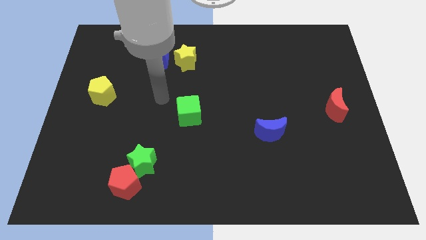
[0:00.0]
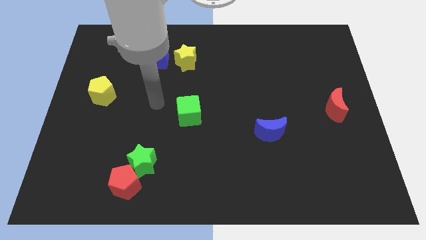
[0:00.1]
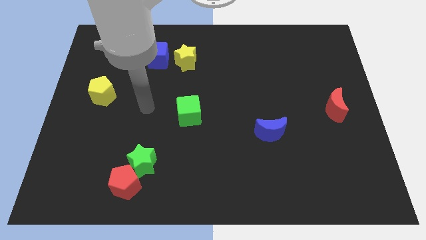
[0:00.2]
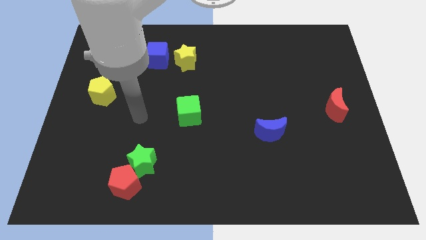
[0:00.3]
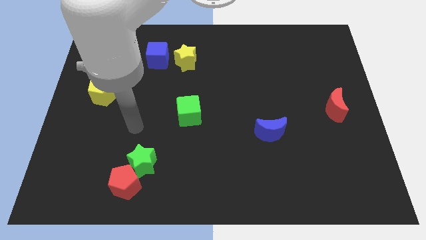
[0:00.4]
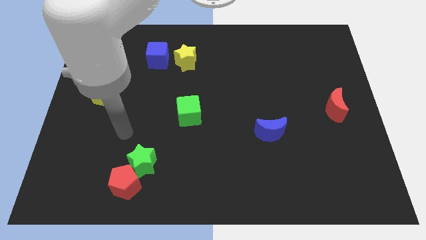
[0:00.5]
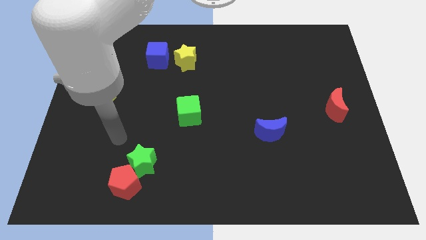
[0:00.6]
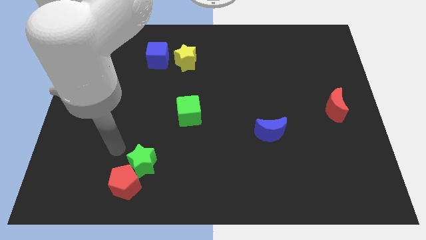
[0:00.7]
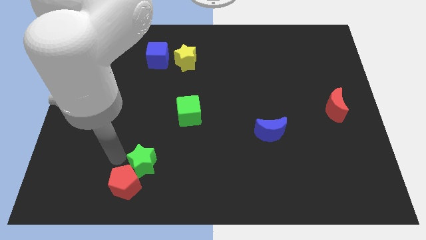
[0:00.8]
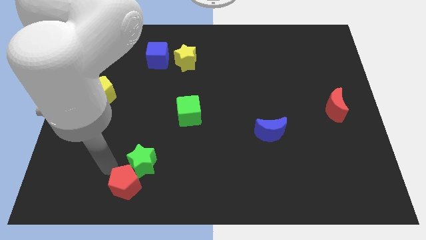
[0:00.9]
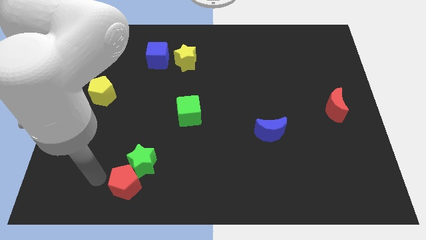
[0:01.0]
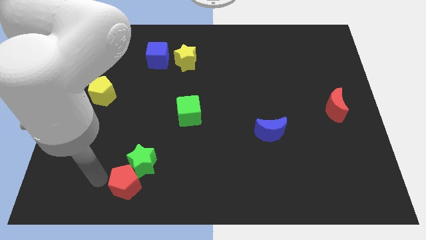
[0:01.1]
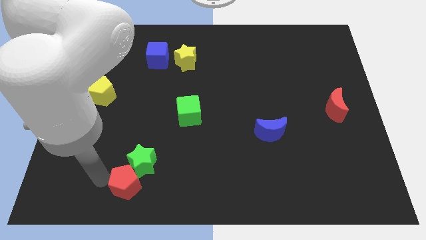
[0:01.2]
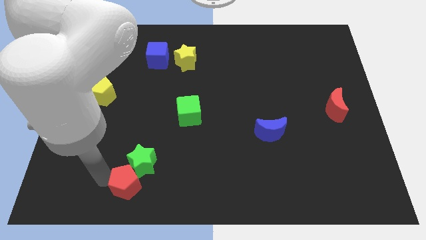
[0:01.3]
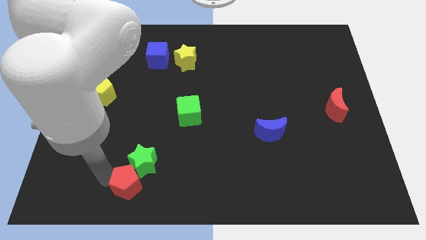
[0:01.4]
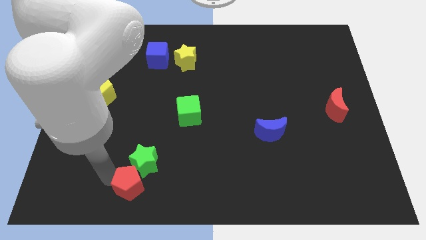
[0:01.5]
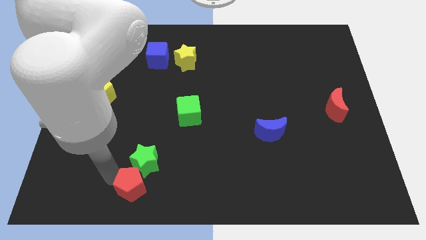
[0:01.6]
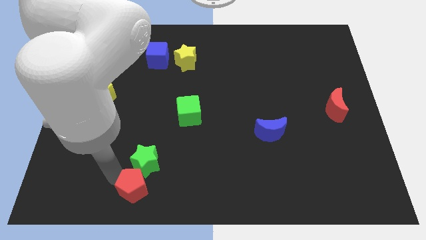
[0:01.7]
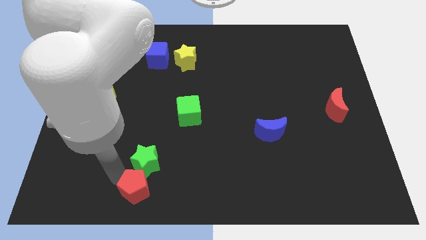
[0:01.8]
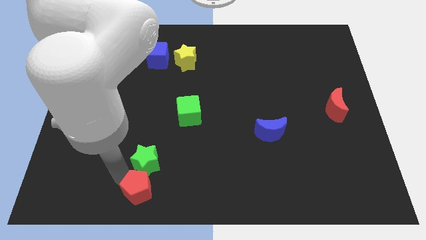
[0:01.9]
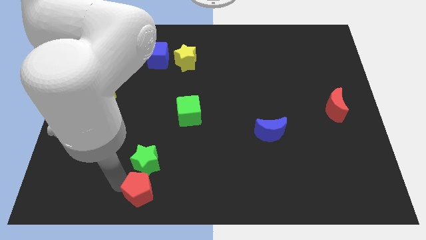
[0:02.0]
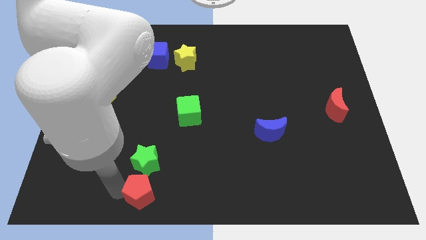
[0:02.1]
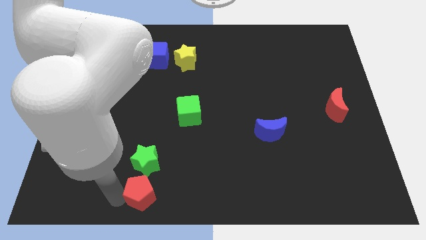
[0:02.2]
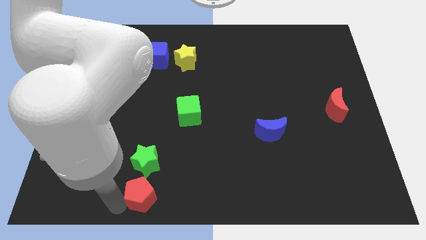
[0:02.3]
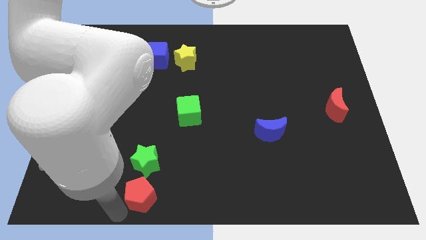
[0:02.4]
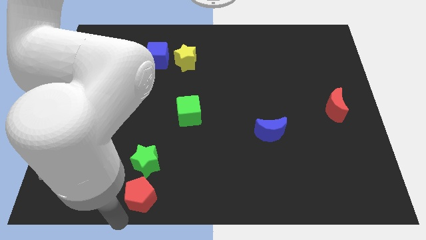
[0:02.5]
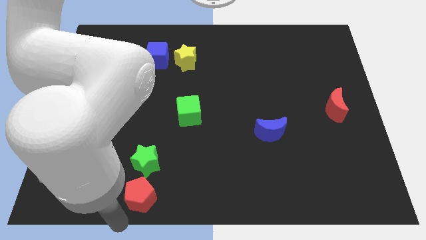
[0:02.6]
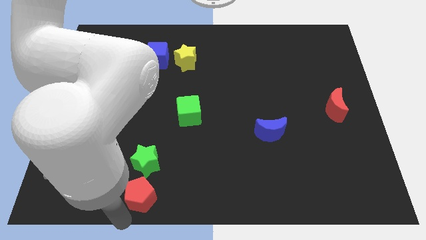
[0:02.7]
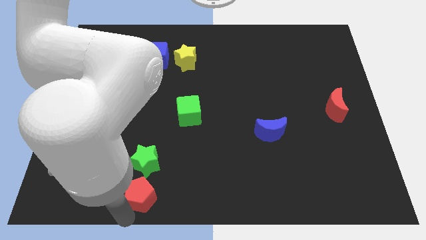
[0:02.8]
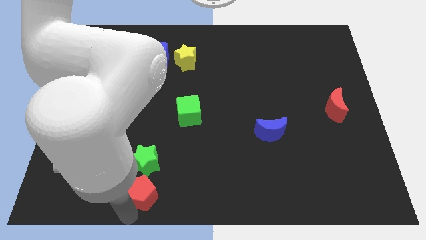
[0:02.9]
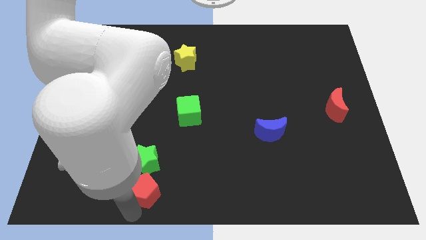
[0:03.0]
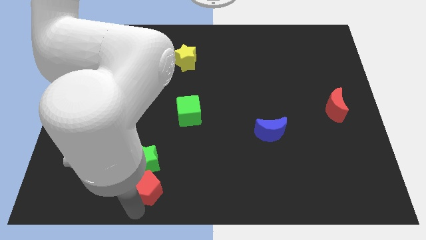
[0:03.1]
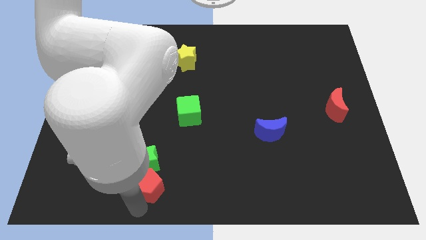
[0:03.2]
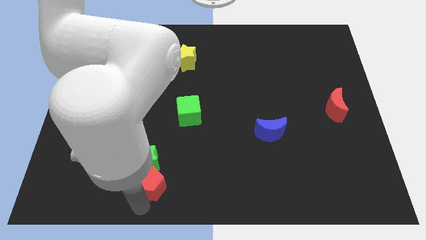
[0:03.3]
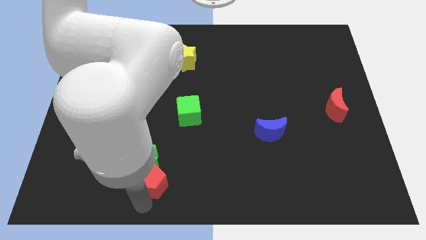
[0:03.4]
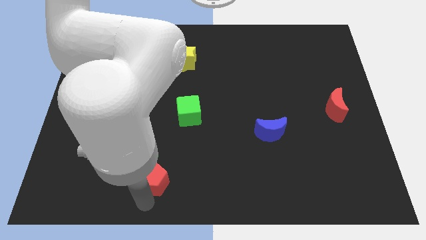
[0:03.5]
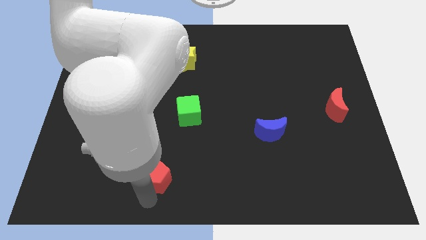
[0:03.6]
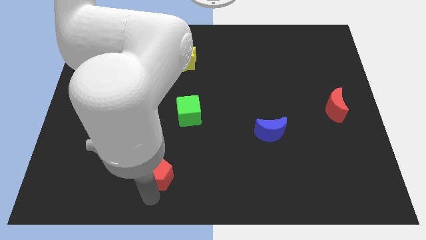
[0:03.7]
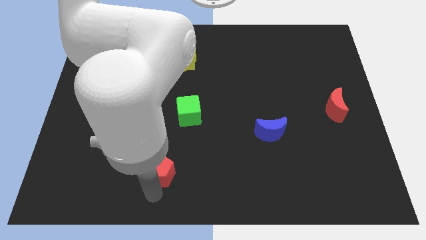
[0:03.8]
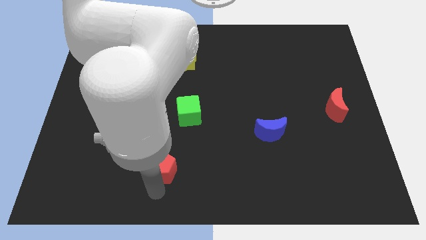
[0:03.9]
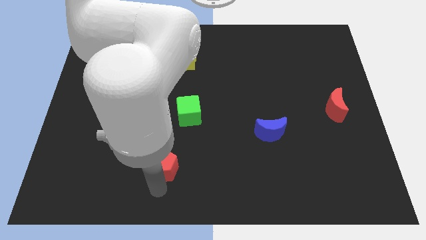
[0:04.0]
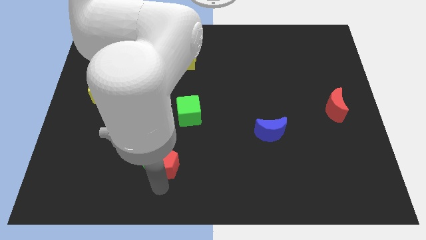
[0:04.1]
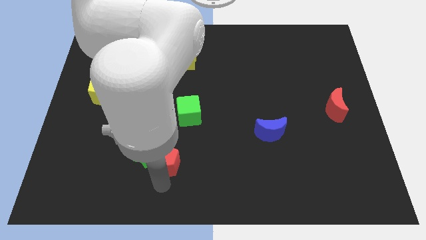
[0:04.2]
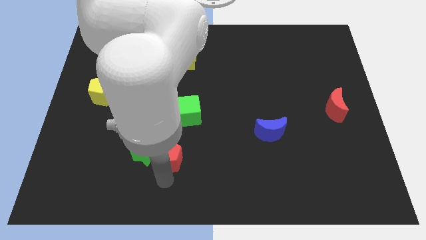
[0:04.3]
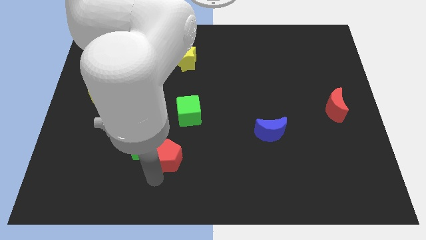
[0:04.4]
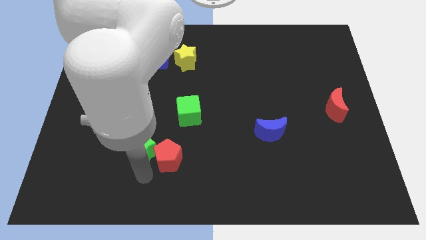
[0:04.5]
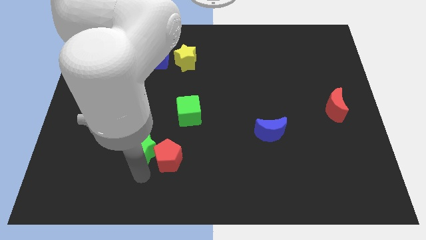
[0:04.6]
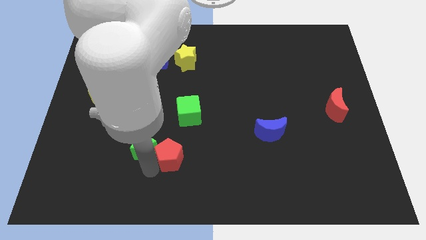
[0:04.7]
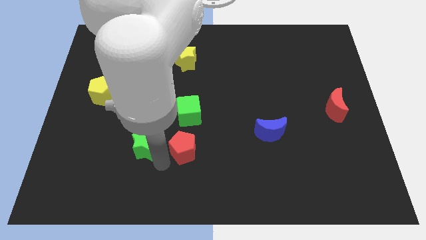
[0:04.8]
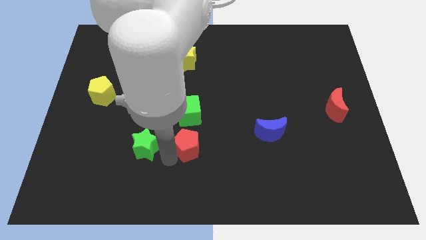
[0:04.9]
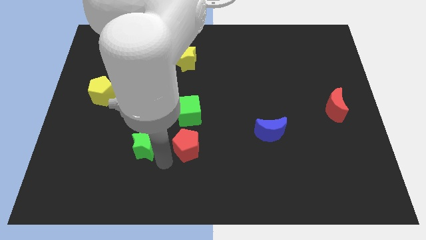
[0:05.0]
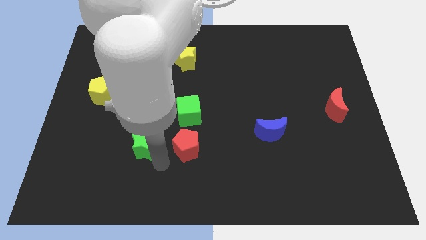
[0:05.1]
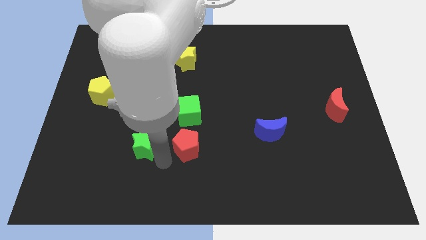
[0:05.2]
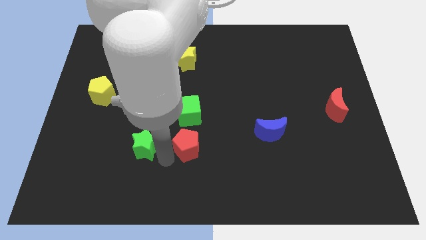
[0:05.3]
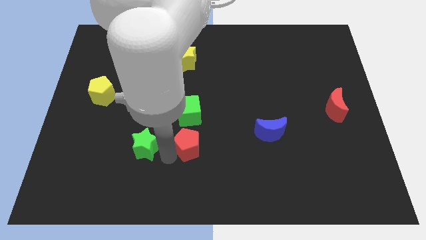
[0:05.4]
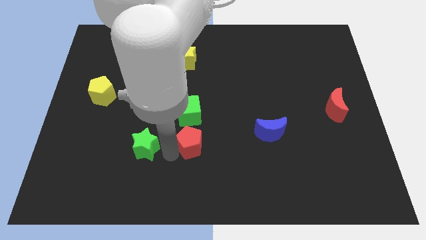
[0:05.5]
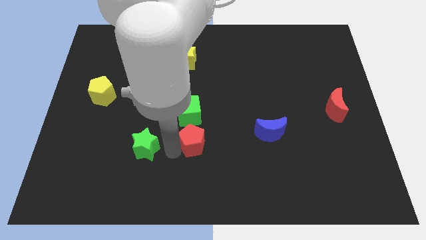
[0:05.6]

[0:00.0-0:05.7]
slide the red pentagon to the bottom right side of the green cube

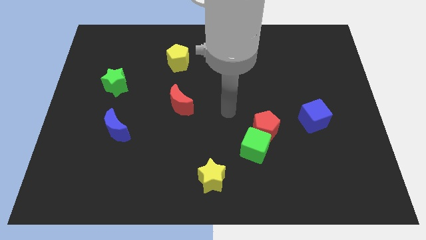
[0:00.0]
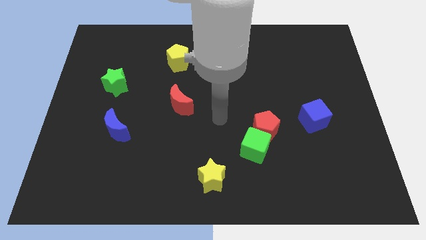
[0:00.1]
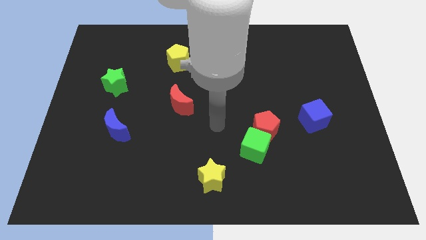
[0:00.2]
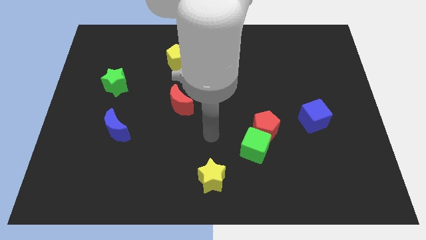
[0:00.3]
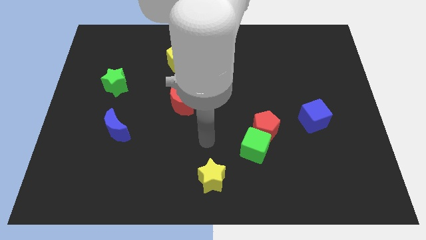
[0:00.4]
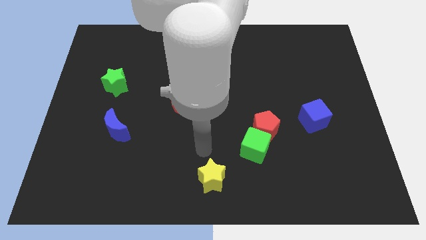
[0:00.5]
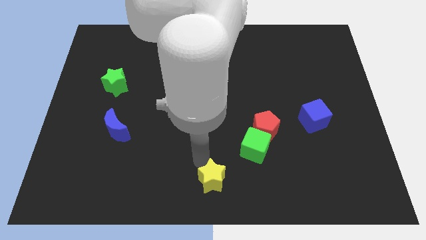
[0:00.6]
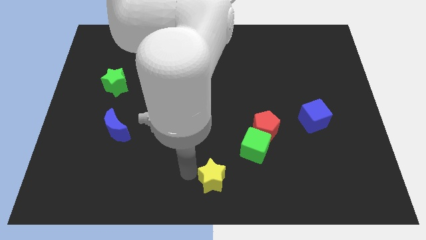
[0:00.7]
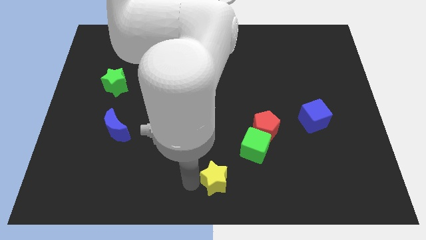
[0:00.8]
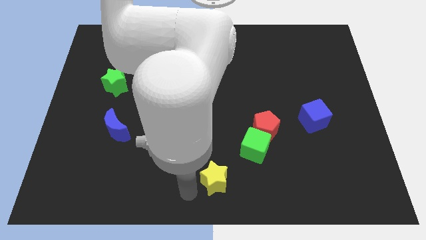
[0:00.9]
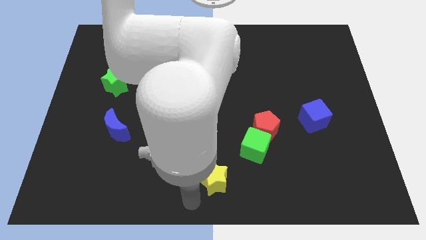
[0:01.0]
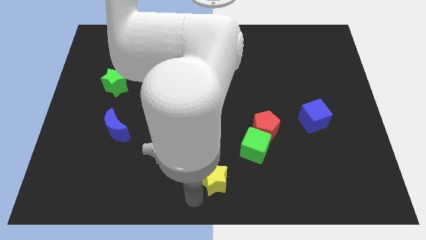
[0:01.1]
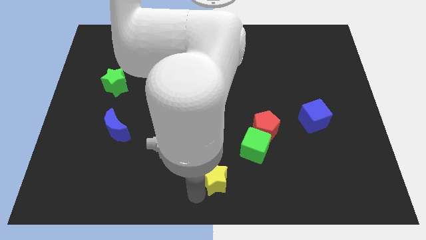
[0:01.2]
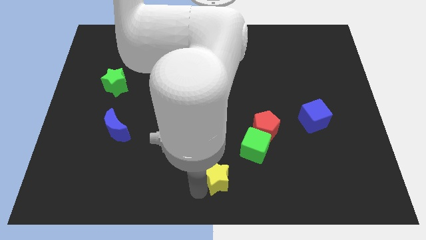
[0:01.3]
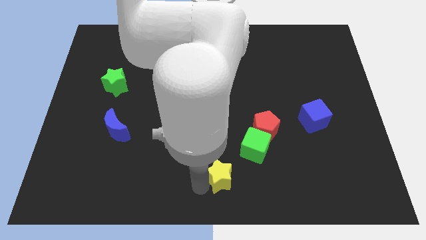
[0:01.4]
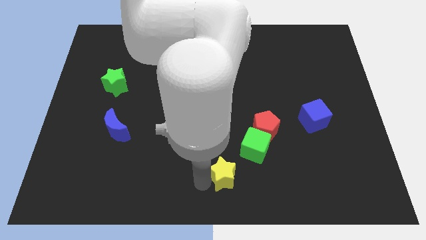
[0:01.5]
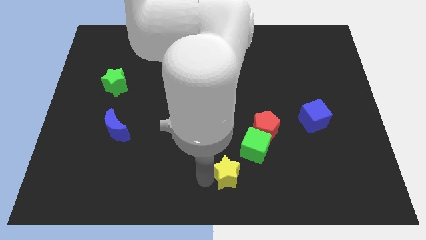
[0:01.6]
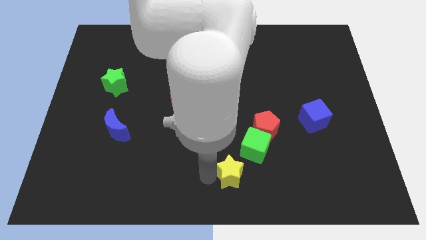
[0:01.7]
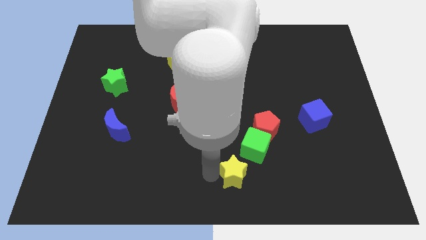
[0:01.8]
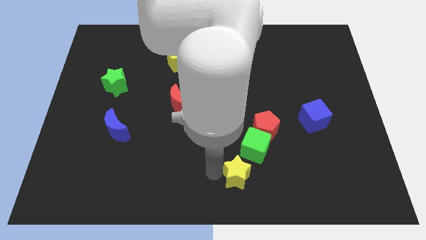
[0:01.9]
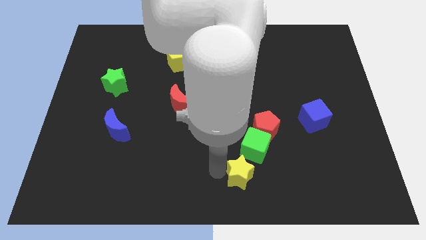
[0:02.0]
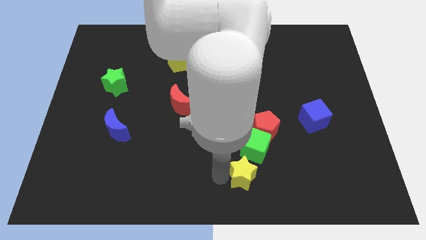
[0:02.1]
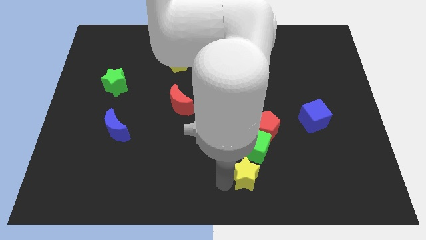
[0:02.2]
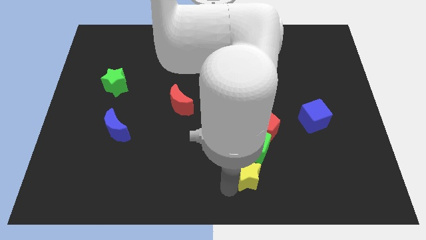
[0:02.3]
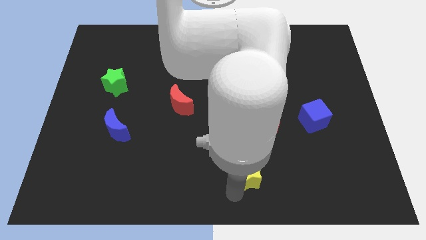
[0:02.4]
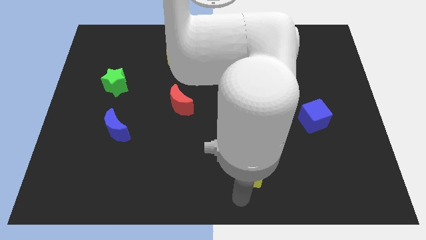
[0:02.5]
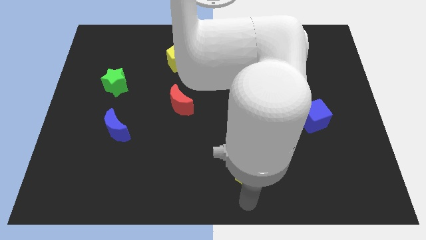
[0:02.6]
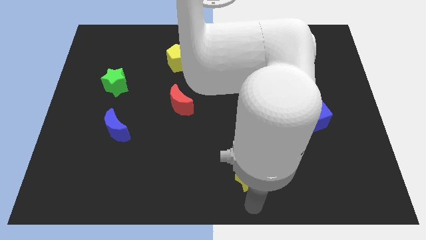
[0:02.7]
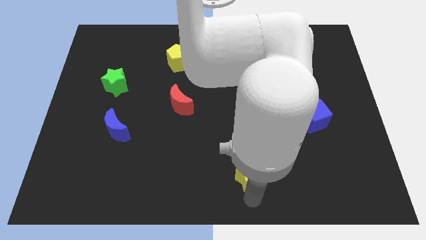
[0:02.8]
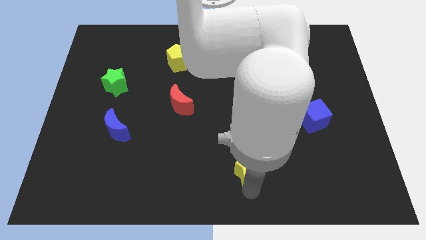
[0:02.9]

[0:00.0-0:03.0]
slide the yellow star diagonally down and to the left of the red pentagon
